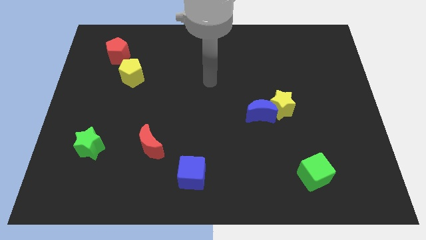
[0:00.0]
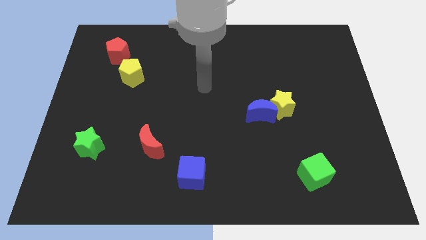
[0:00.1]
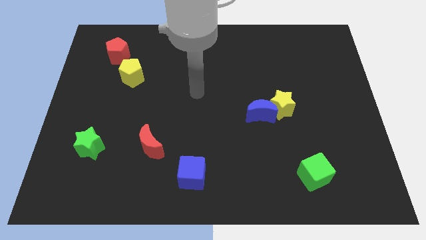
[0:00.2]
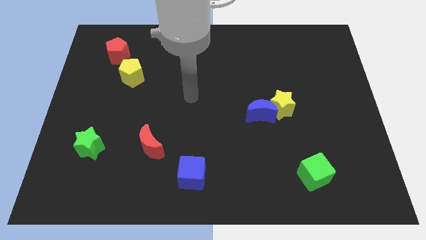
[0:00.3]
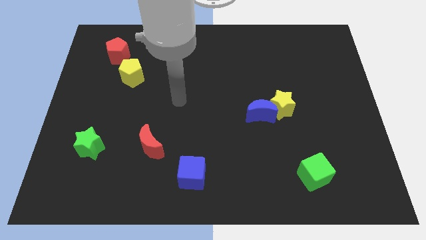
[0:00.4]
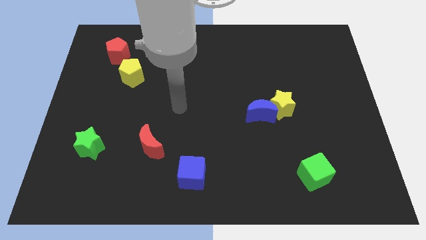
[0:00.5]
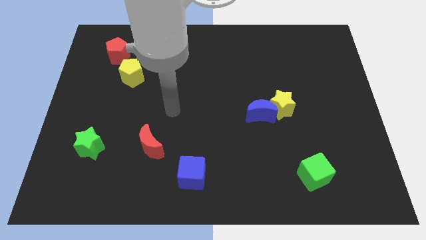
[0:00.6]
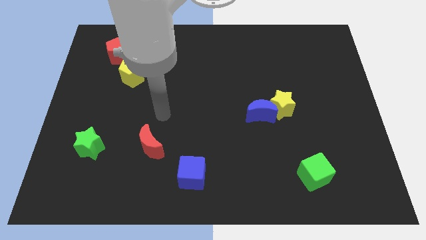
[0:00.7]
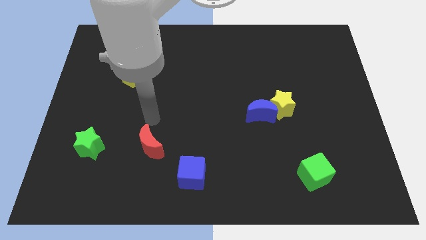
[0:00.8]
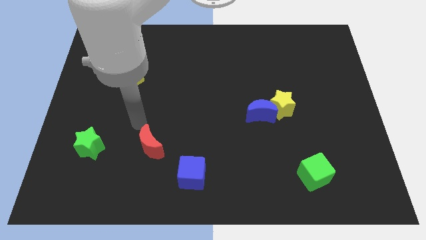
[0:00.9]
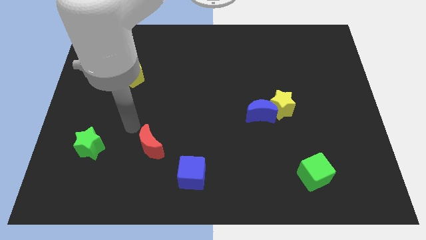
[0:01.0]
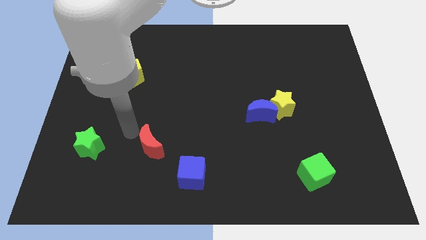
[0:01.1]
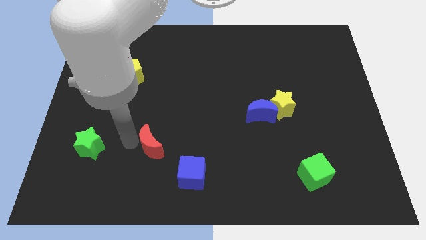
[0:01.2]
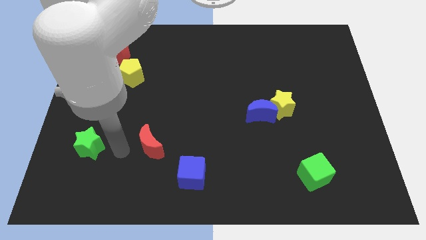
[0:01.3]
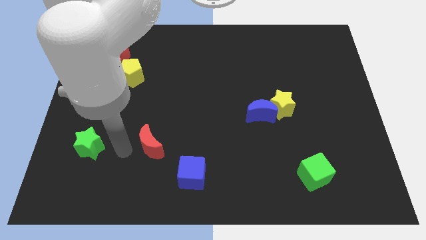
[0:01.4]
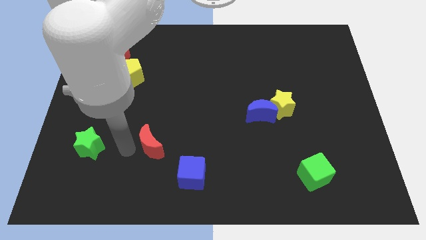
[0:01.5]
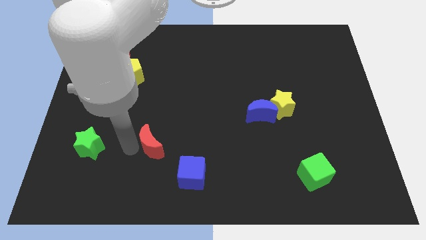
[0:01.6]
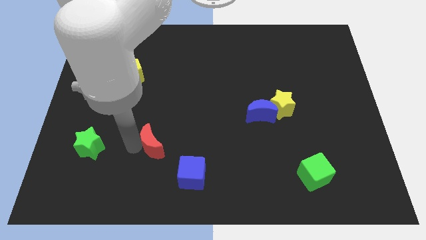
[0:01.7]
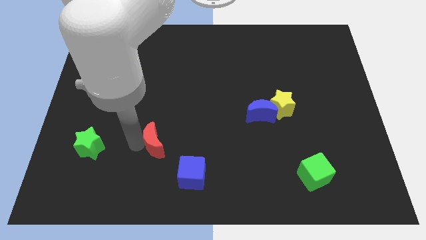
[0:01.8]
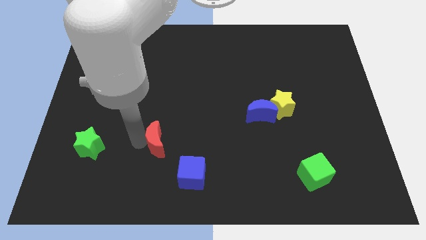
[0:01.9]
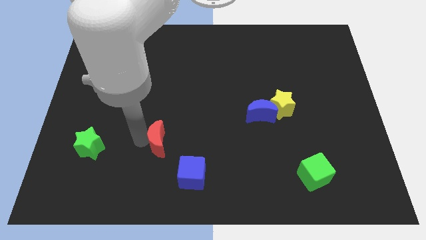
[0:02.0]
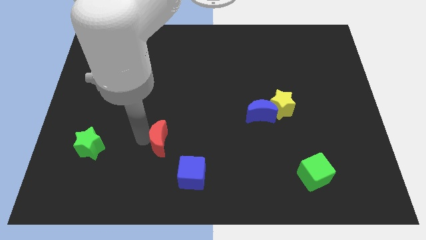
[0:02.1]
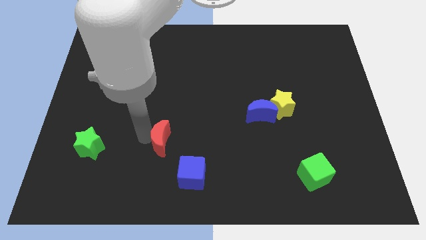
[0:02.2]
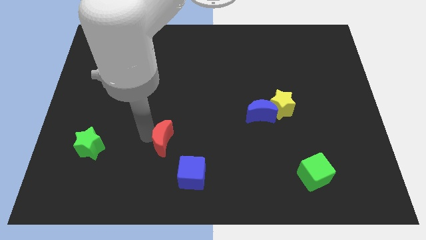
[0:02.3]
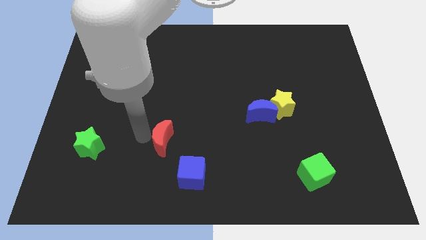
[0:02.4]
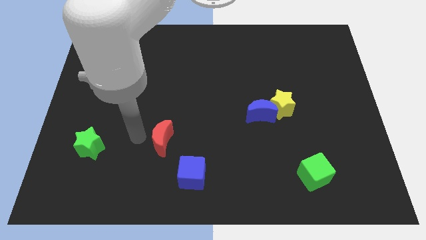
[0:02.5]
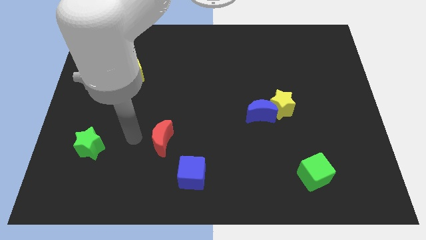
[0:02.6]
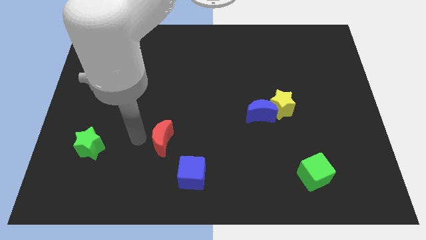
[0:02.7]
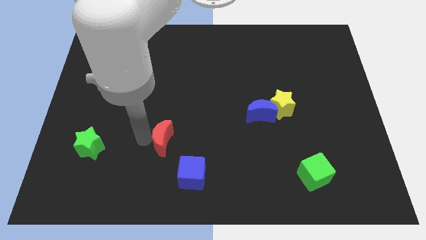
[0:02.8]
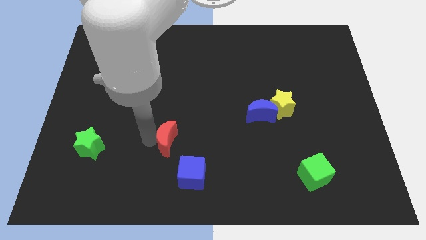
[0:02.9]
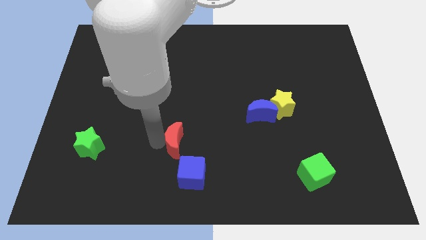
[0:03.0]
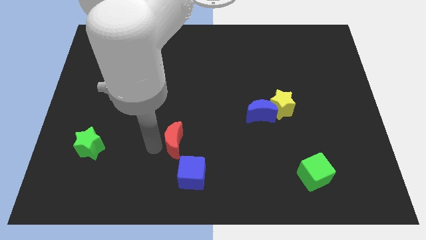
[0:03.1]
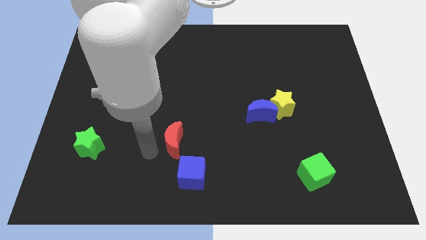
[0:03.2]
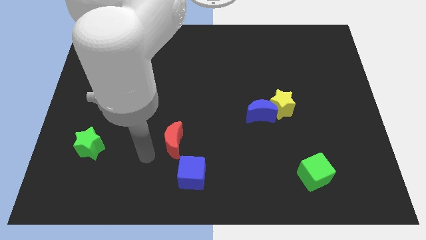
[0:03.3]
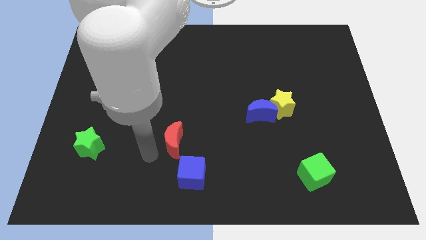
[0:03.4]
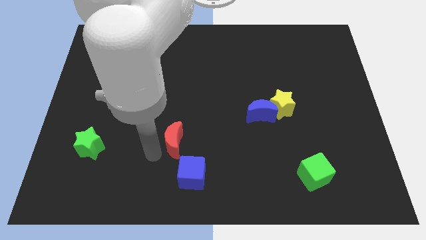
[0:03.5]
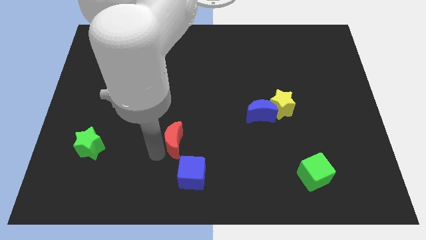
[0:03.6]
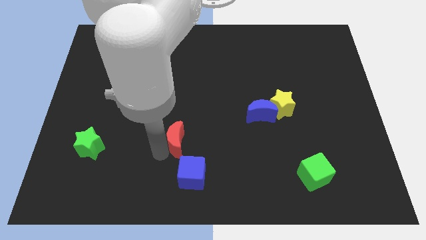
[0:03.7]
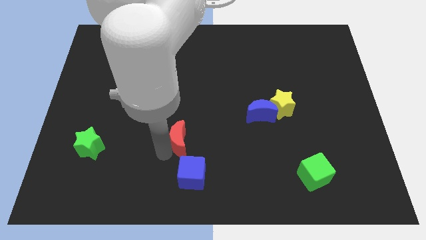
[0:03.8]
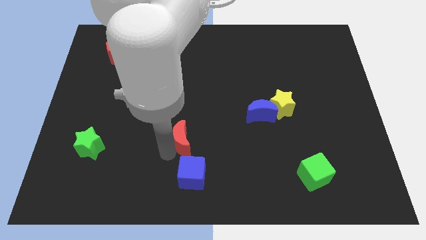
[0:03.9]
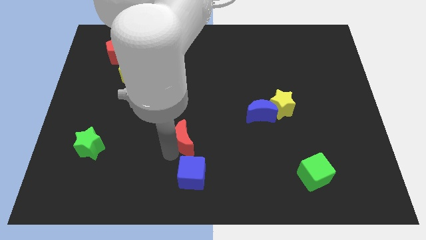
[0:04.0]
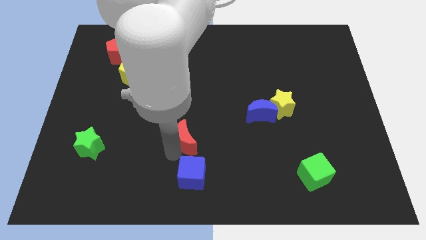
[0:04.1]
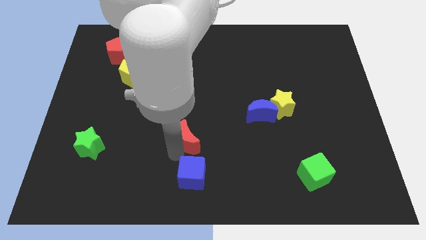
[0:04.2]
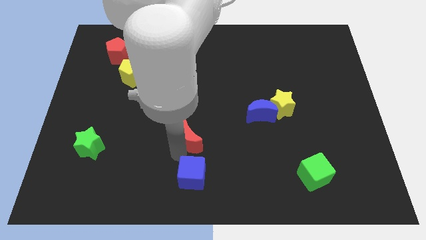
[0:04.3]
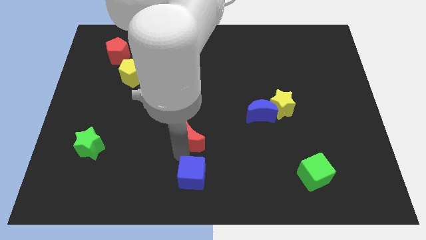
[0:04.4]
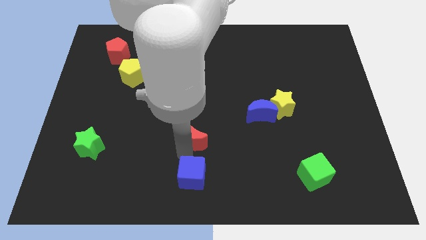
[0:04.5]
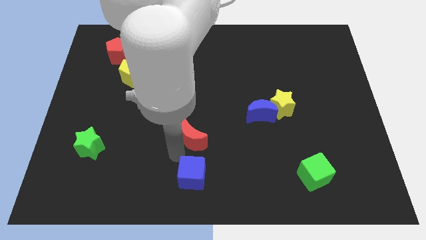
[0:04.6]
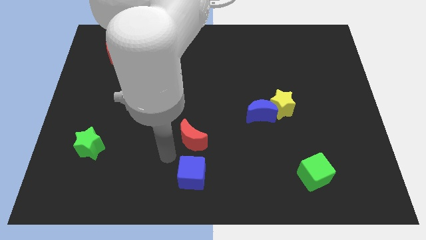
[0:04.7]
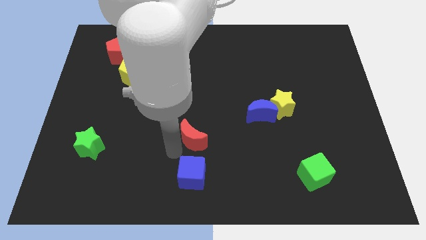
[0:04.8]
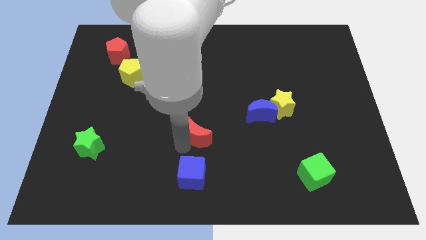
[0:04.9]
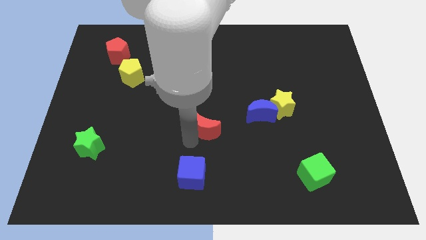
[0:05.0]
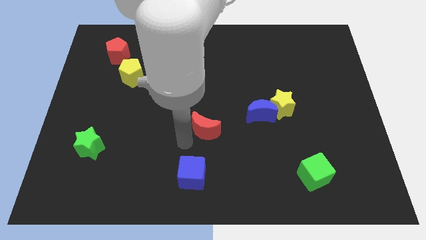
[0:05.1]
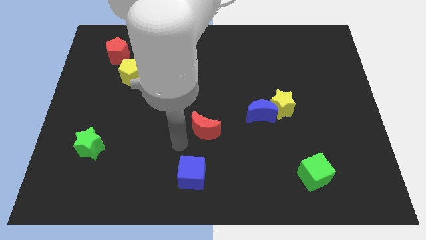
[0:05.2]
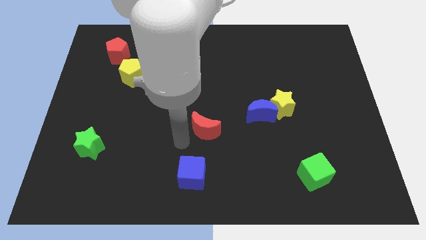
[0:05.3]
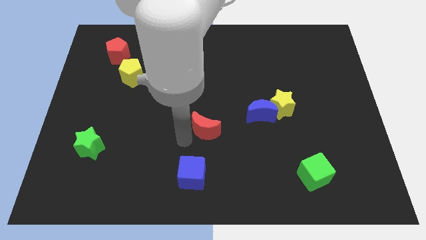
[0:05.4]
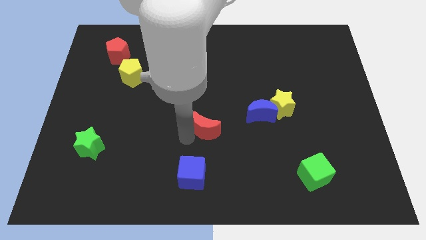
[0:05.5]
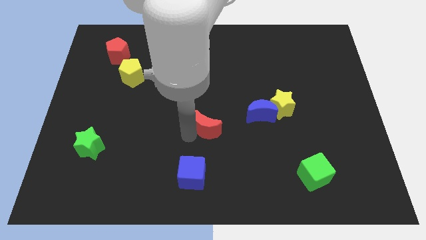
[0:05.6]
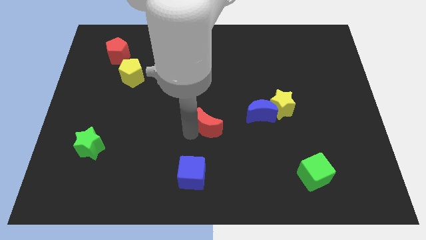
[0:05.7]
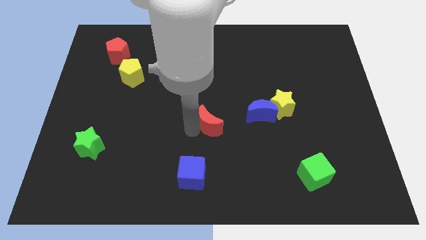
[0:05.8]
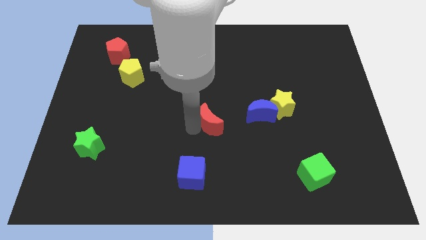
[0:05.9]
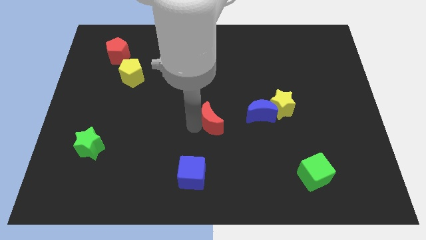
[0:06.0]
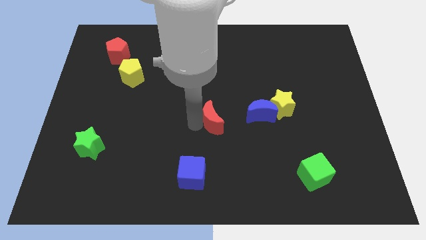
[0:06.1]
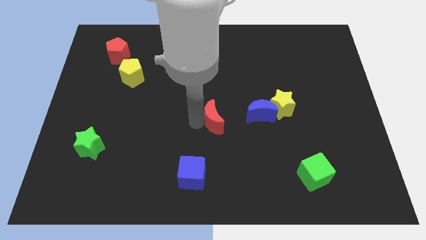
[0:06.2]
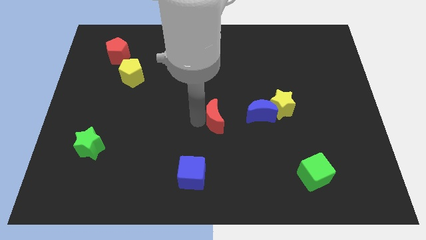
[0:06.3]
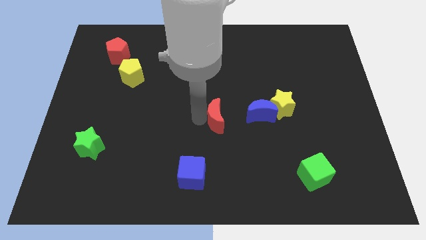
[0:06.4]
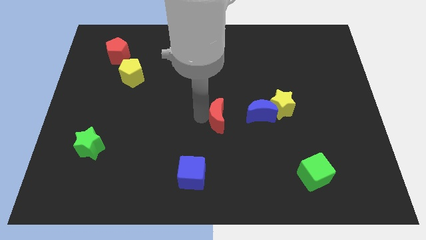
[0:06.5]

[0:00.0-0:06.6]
push the red moon left of the yellow star

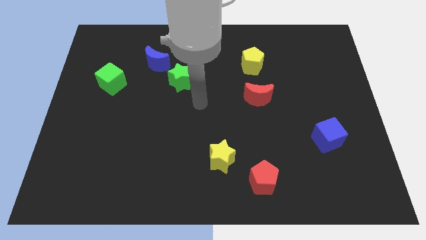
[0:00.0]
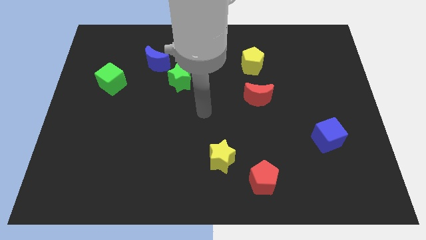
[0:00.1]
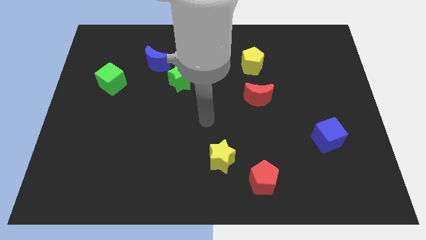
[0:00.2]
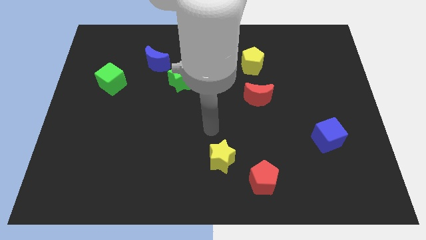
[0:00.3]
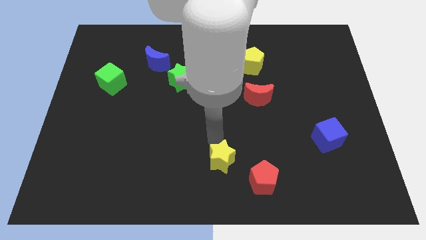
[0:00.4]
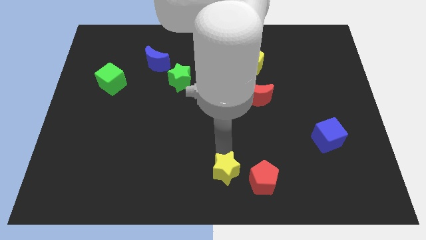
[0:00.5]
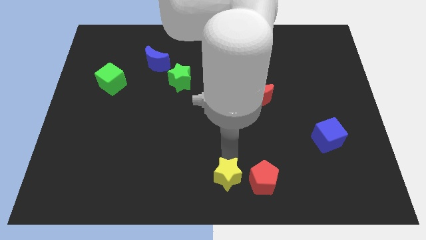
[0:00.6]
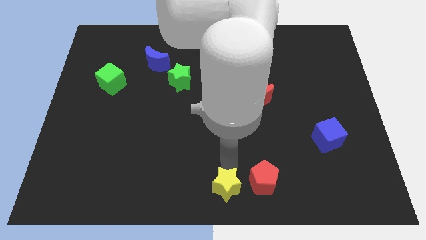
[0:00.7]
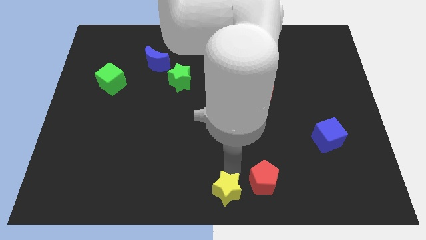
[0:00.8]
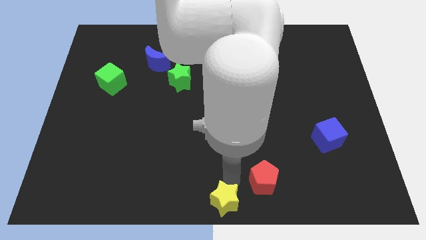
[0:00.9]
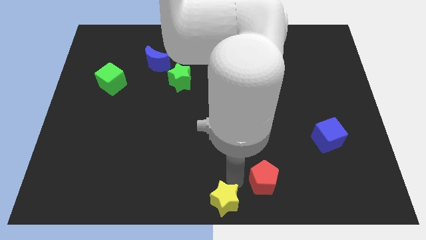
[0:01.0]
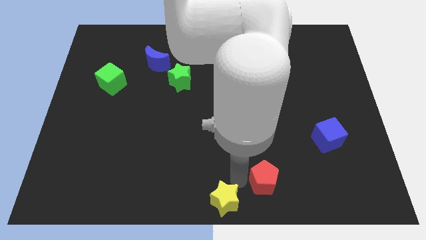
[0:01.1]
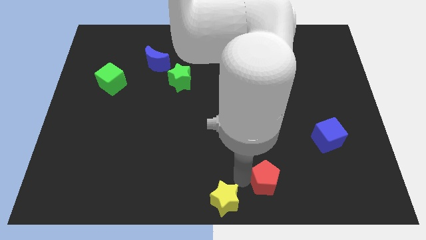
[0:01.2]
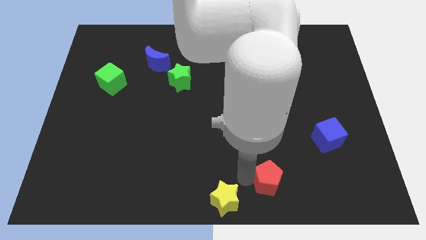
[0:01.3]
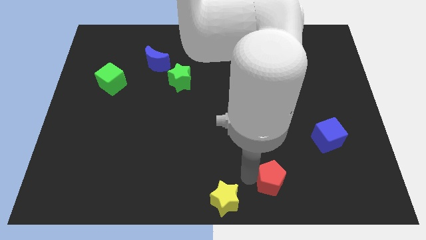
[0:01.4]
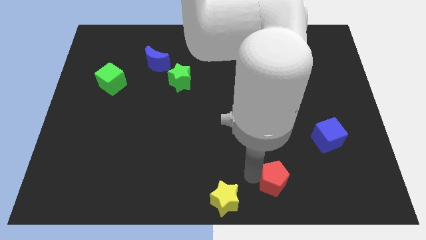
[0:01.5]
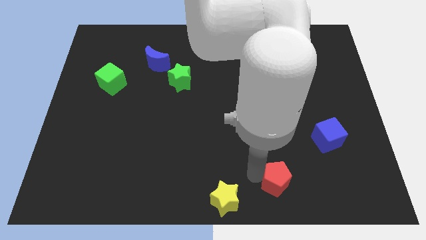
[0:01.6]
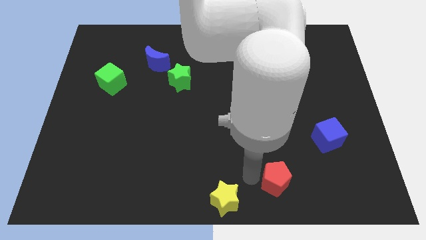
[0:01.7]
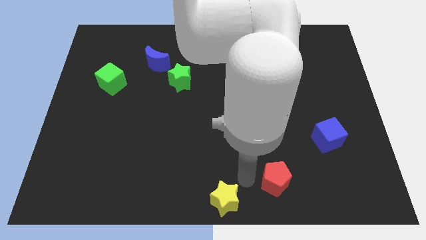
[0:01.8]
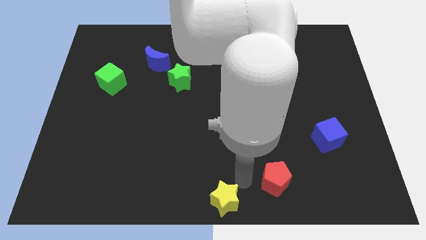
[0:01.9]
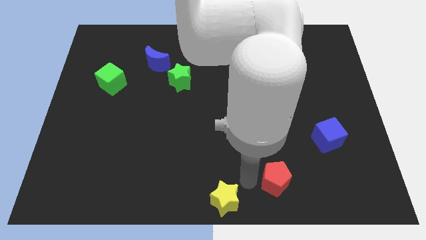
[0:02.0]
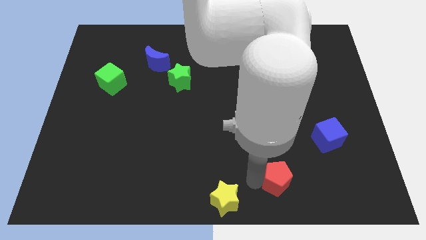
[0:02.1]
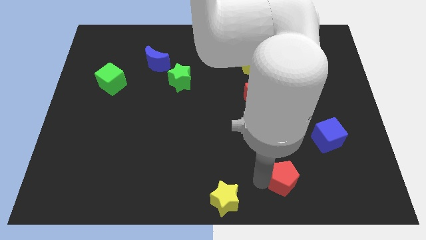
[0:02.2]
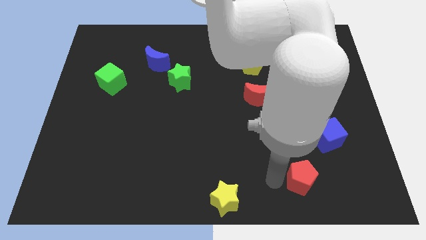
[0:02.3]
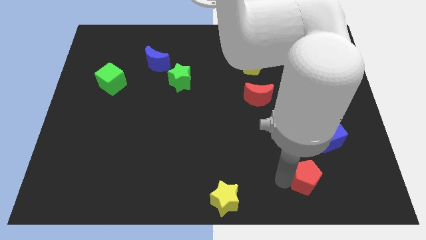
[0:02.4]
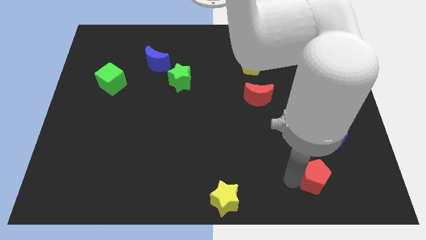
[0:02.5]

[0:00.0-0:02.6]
move the red pentagon to the bottom side of the blue cube
